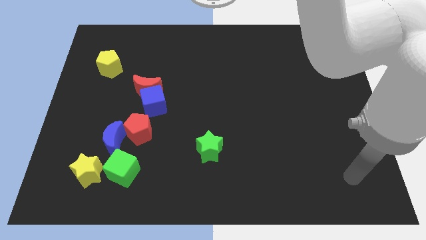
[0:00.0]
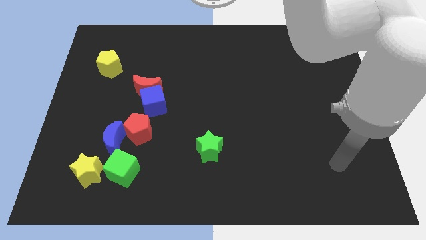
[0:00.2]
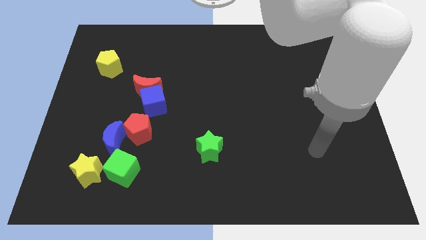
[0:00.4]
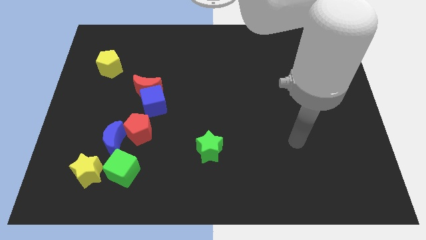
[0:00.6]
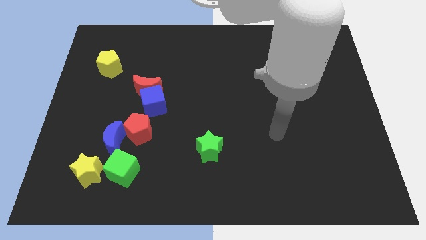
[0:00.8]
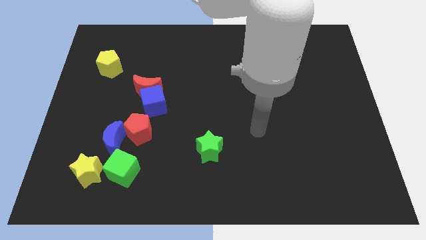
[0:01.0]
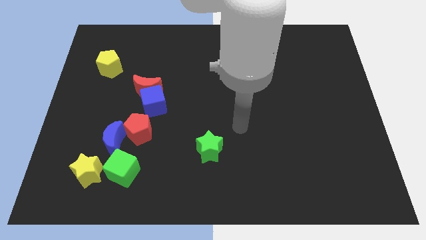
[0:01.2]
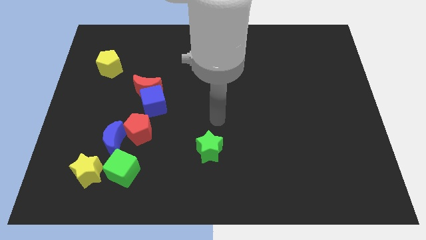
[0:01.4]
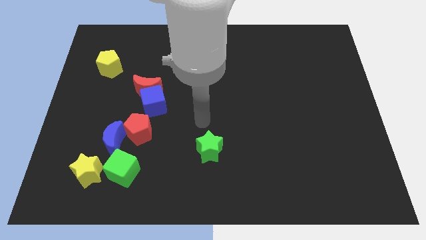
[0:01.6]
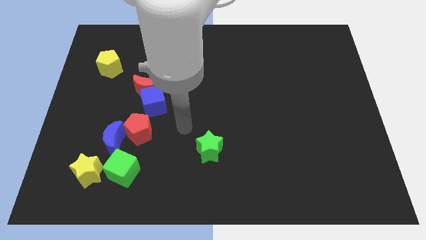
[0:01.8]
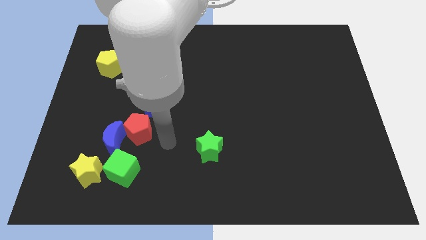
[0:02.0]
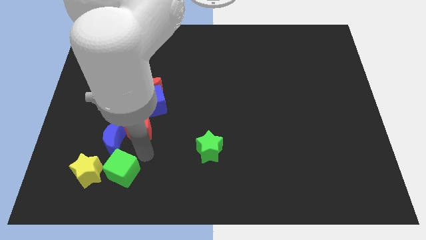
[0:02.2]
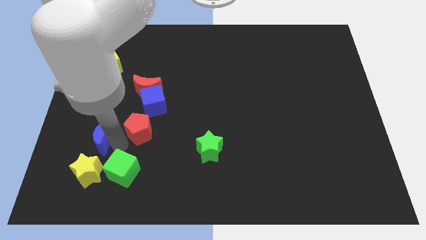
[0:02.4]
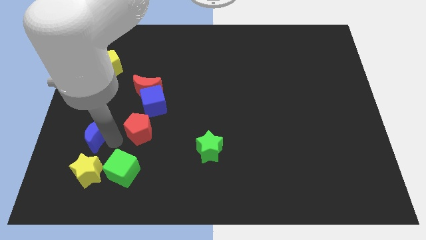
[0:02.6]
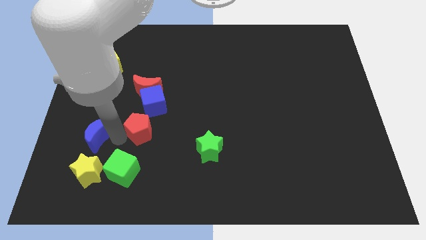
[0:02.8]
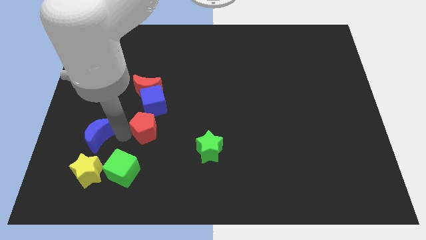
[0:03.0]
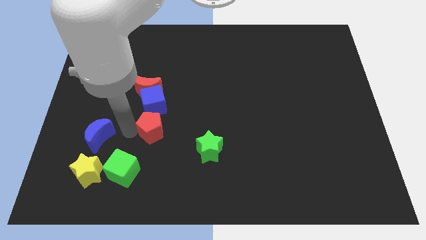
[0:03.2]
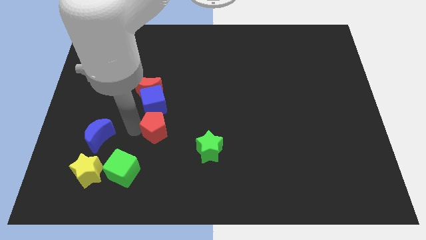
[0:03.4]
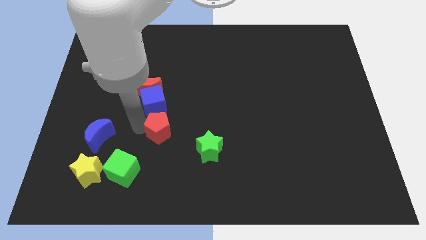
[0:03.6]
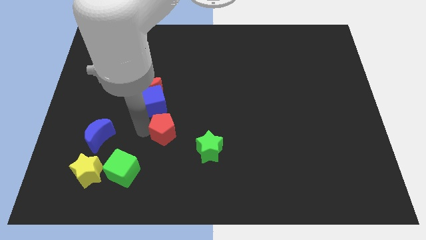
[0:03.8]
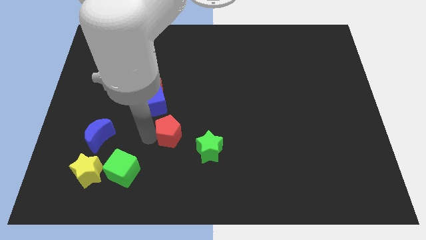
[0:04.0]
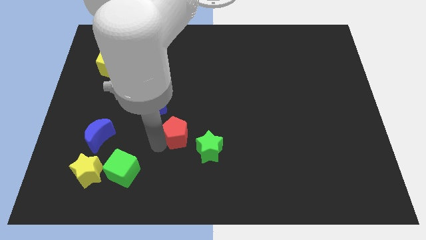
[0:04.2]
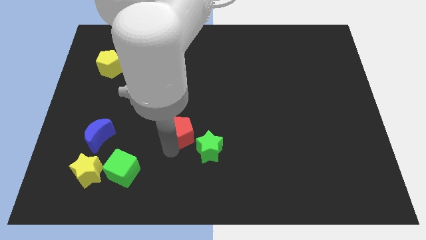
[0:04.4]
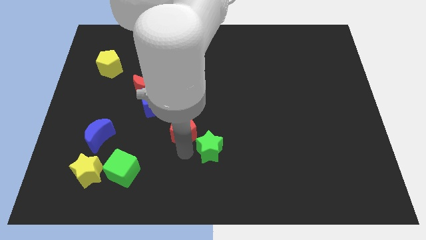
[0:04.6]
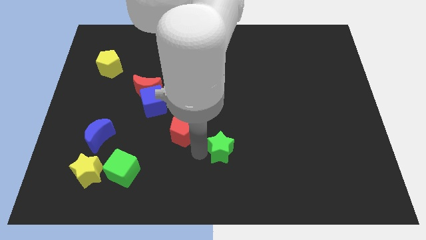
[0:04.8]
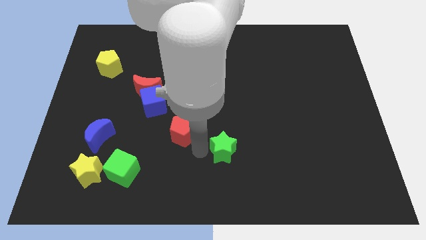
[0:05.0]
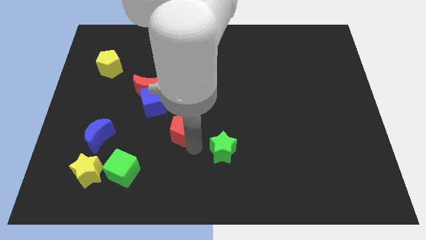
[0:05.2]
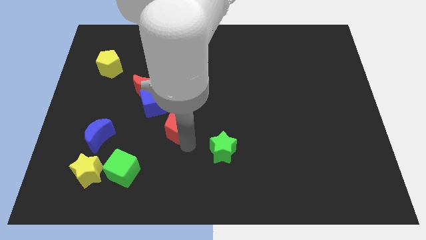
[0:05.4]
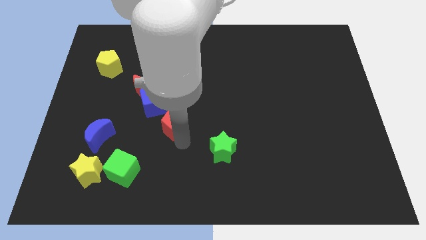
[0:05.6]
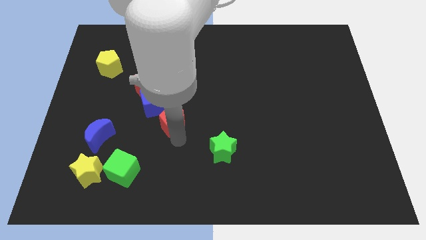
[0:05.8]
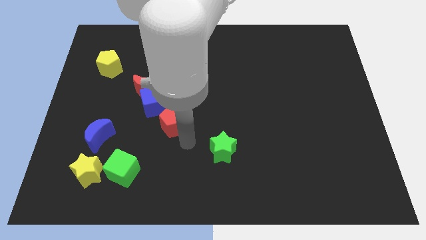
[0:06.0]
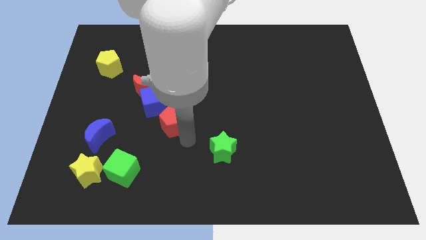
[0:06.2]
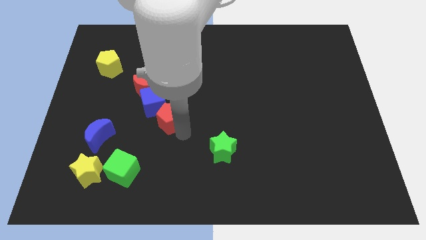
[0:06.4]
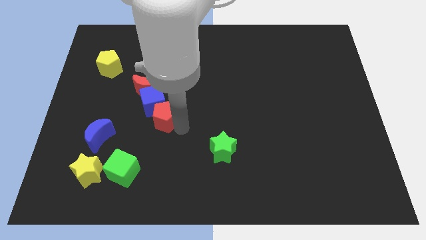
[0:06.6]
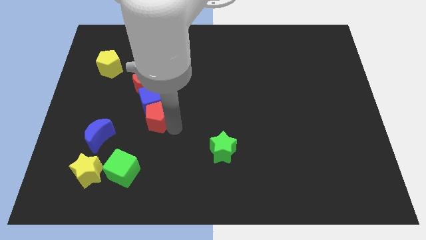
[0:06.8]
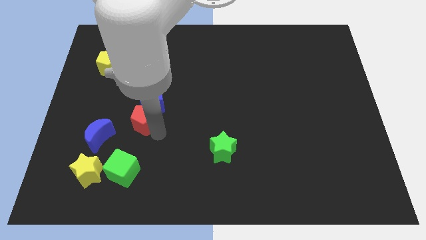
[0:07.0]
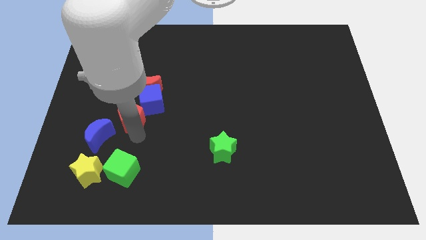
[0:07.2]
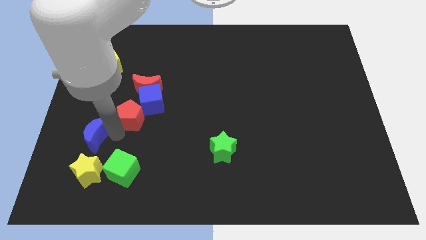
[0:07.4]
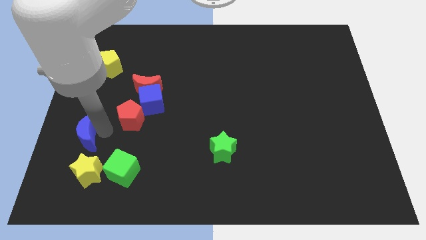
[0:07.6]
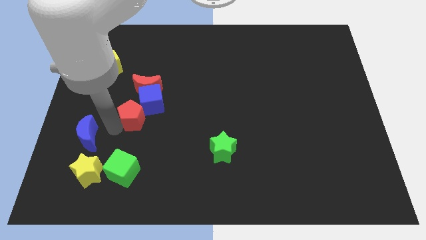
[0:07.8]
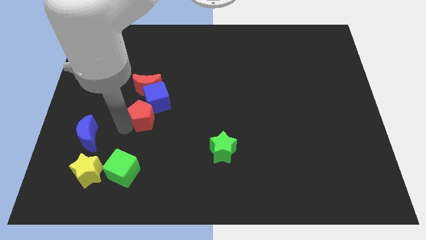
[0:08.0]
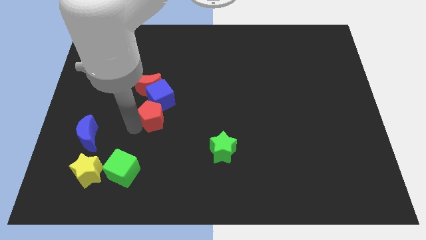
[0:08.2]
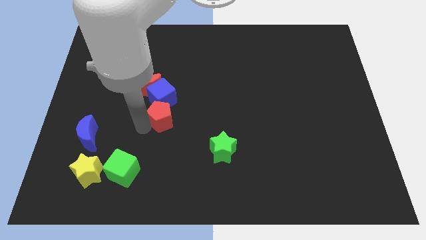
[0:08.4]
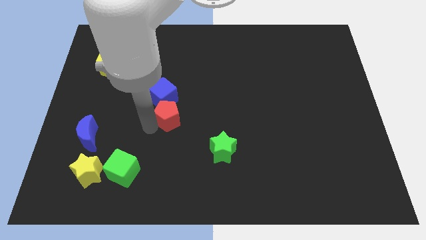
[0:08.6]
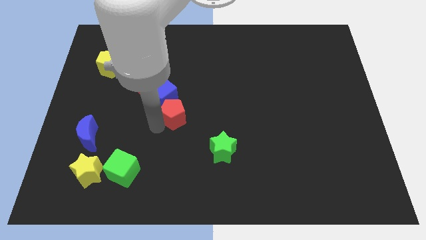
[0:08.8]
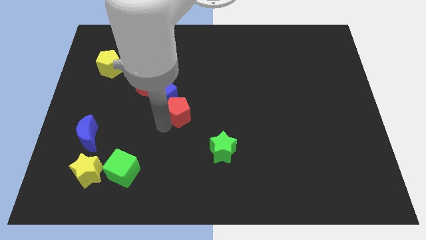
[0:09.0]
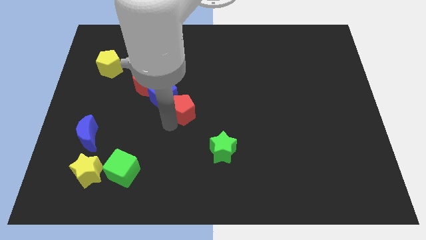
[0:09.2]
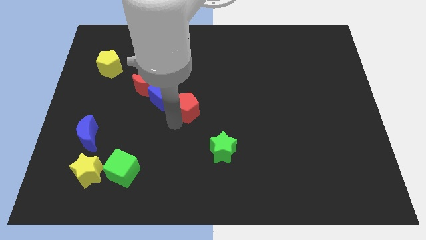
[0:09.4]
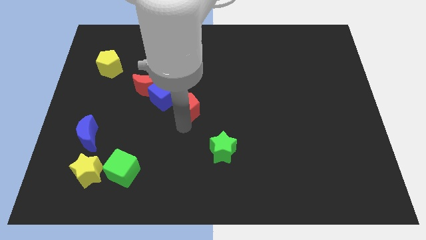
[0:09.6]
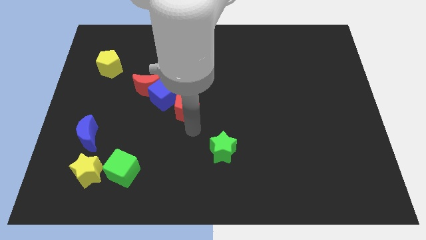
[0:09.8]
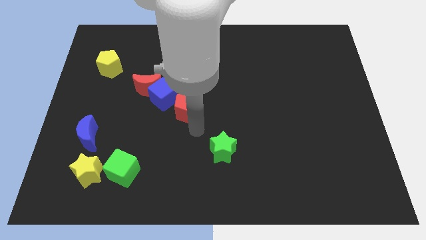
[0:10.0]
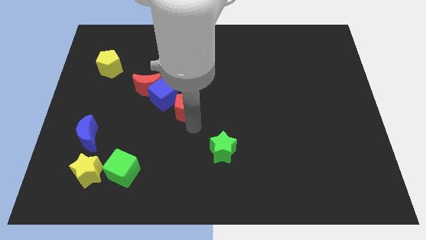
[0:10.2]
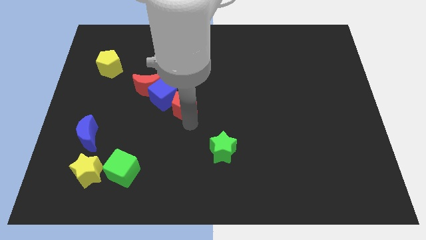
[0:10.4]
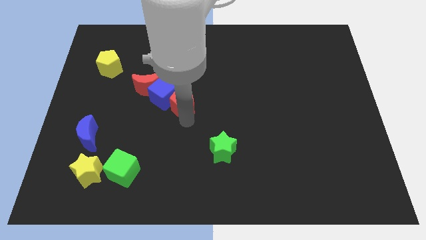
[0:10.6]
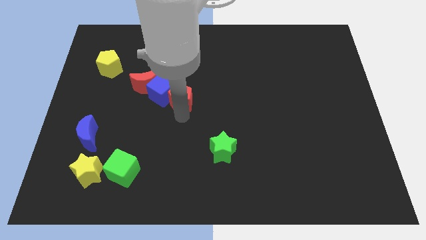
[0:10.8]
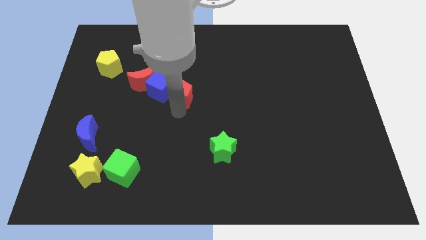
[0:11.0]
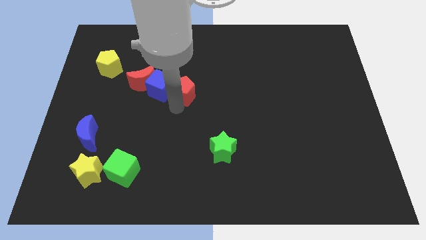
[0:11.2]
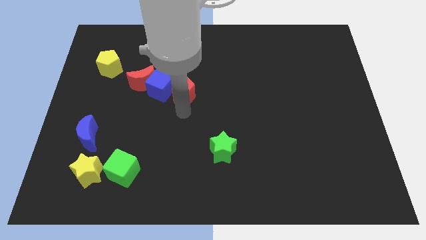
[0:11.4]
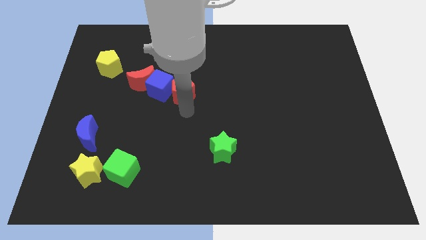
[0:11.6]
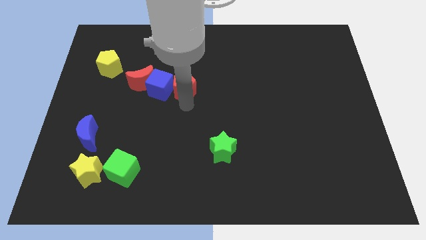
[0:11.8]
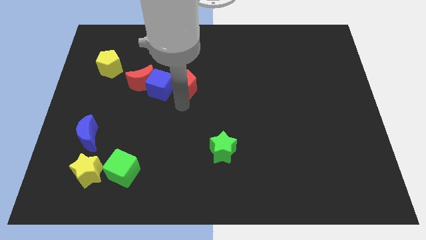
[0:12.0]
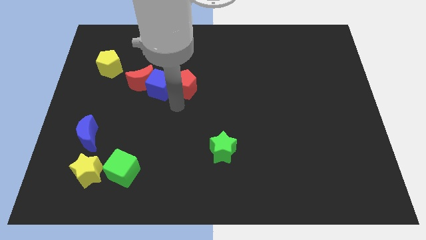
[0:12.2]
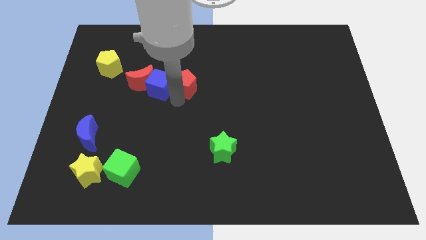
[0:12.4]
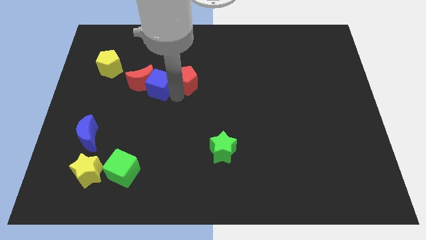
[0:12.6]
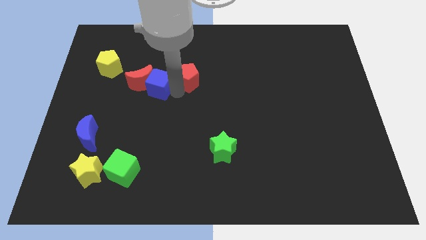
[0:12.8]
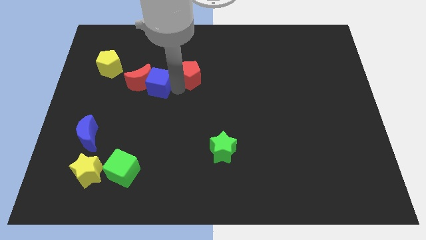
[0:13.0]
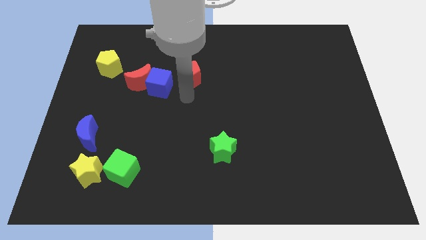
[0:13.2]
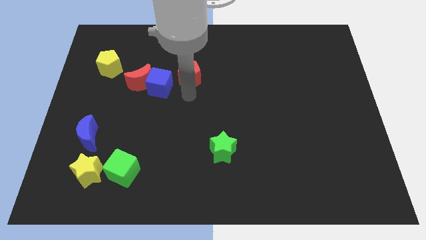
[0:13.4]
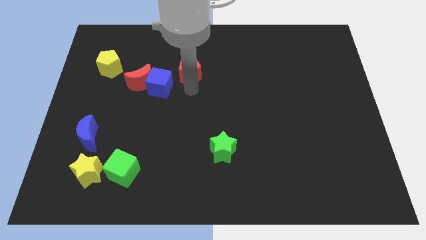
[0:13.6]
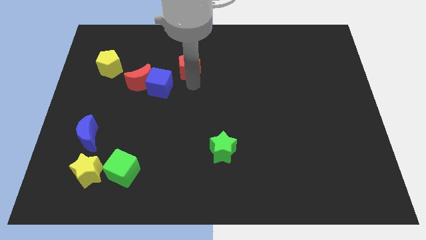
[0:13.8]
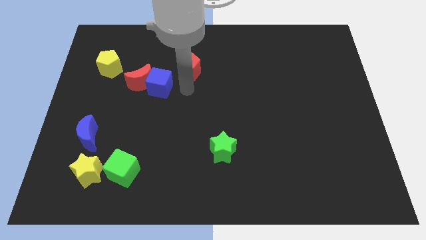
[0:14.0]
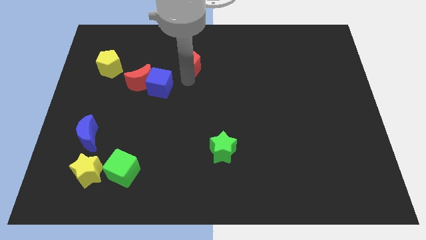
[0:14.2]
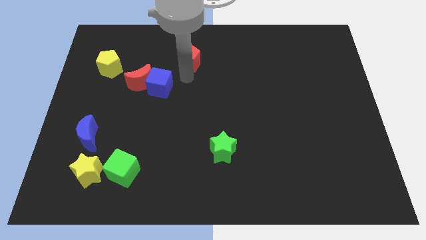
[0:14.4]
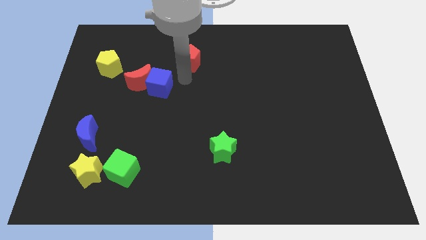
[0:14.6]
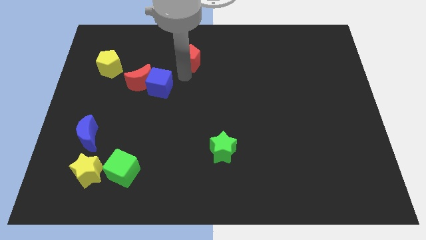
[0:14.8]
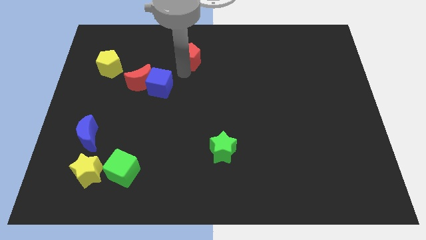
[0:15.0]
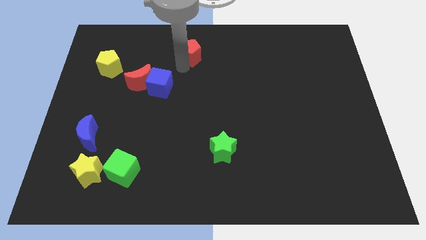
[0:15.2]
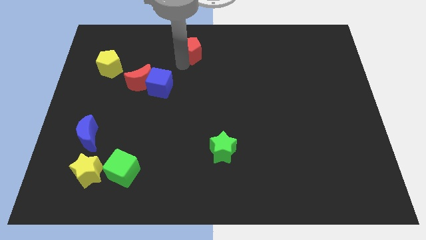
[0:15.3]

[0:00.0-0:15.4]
slide the red pentagon to the top
